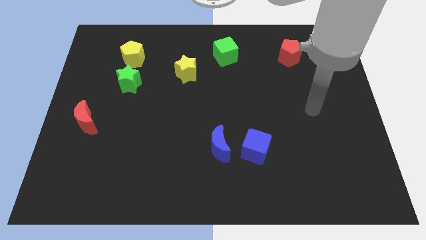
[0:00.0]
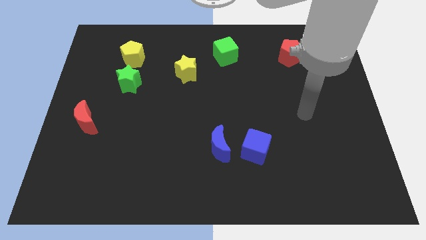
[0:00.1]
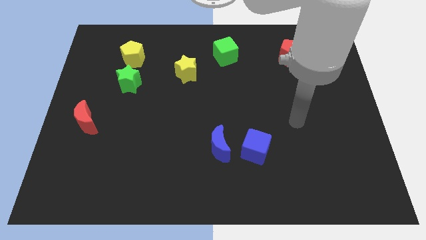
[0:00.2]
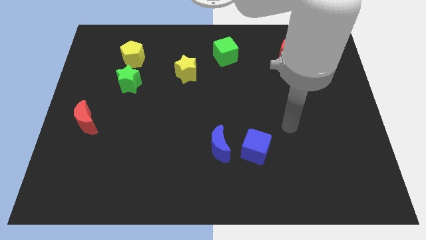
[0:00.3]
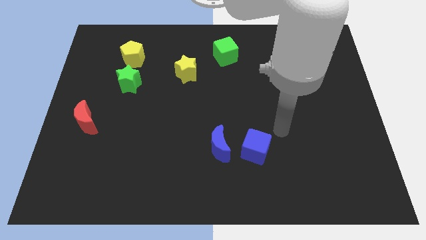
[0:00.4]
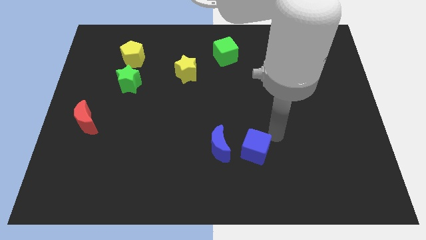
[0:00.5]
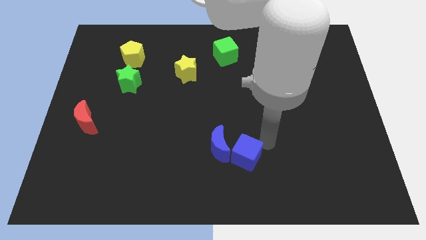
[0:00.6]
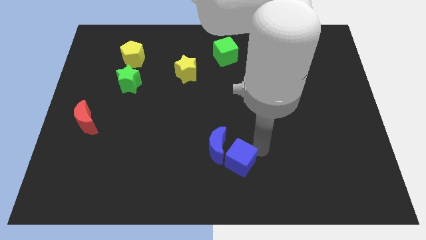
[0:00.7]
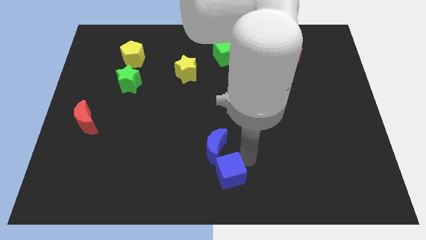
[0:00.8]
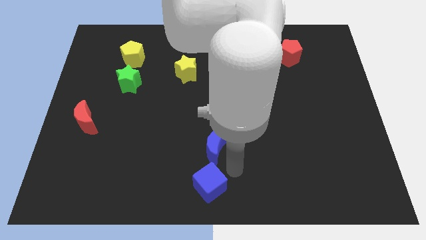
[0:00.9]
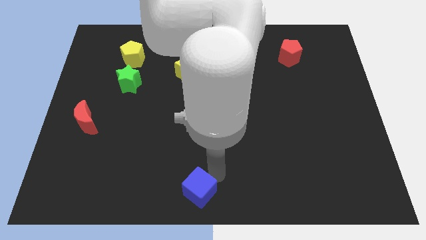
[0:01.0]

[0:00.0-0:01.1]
pull the blue moon apart from the blue cube

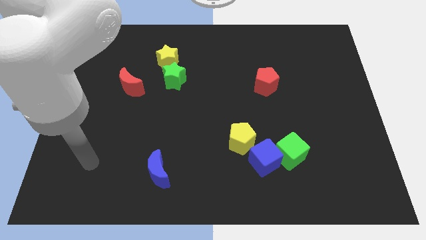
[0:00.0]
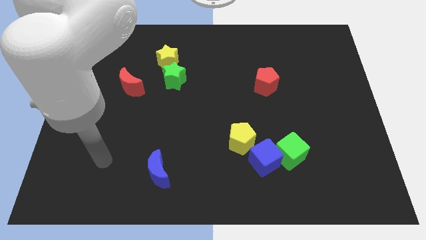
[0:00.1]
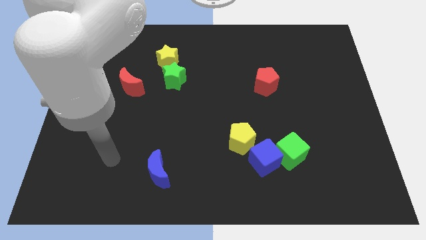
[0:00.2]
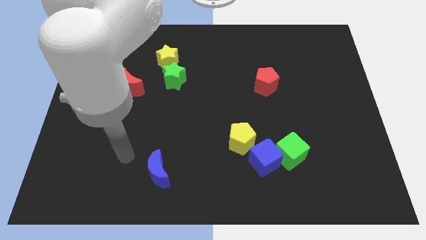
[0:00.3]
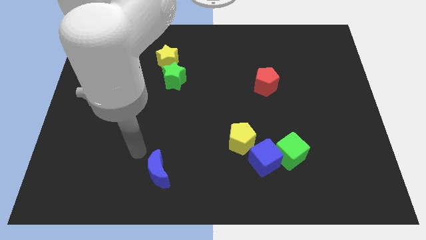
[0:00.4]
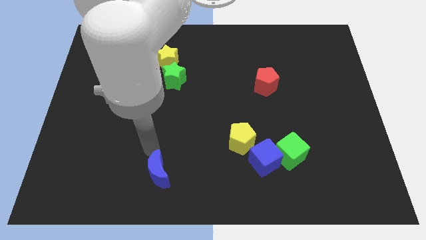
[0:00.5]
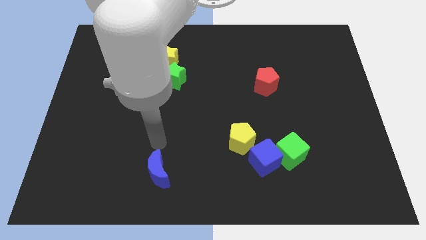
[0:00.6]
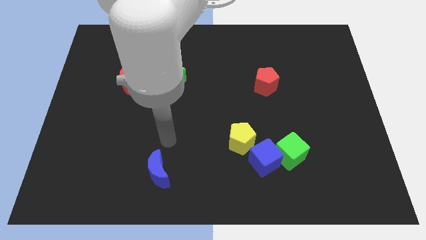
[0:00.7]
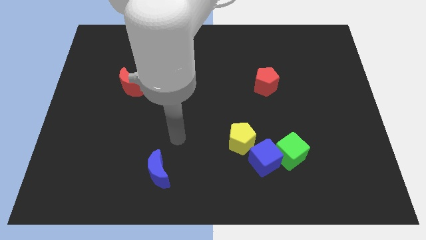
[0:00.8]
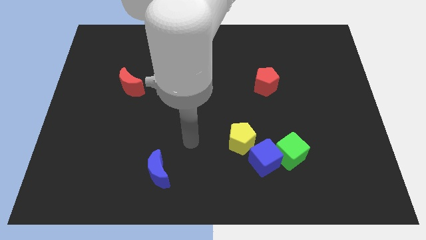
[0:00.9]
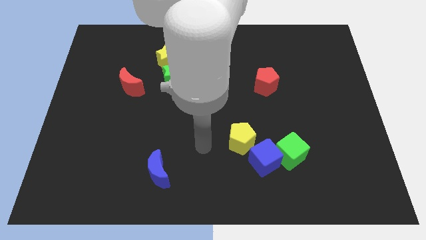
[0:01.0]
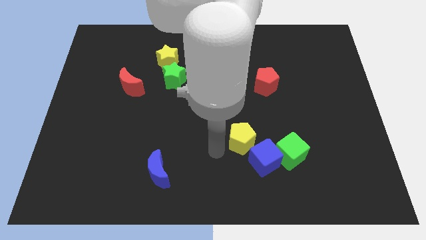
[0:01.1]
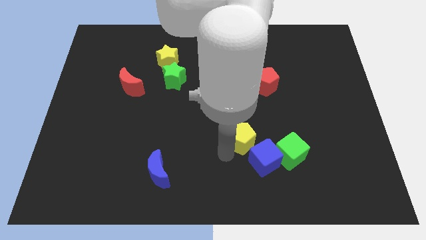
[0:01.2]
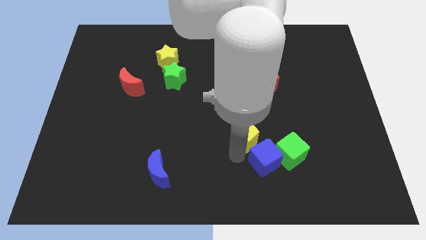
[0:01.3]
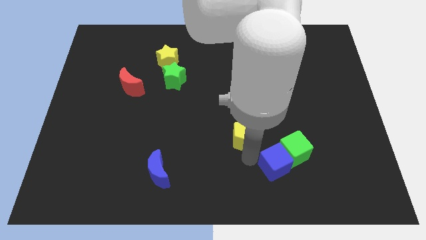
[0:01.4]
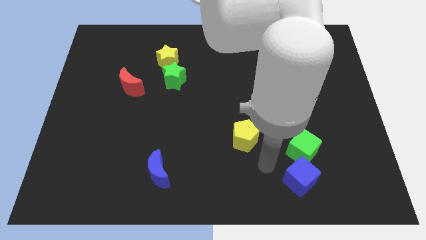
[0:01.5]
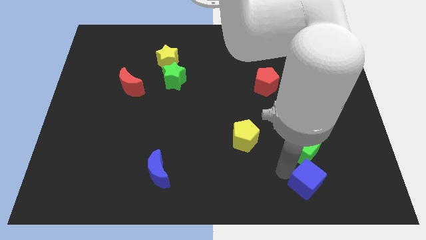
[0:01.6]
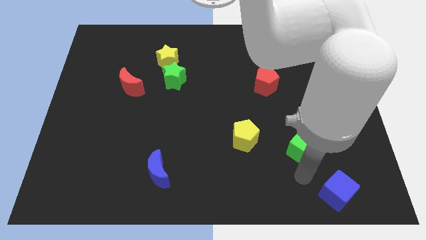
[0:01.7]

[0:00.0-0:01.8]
pull the green cube apart from the blue cube

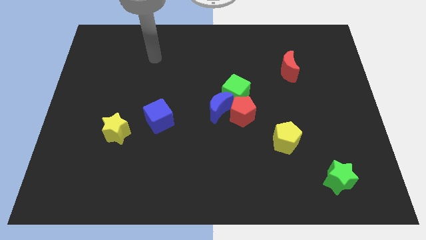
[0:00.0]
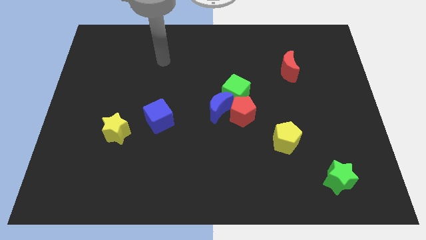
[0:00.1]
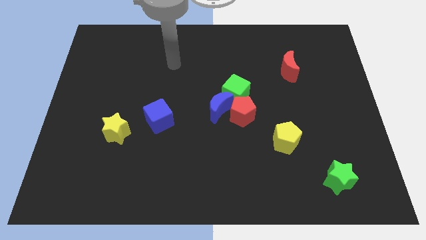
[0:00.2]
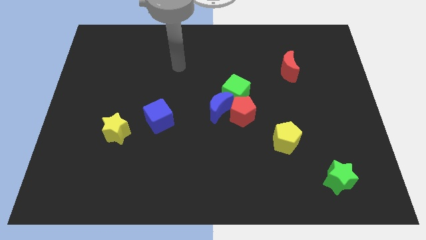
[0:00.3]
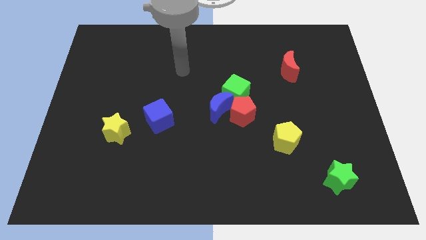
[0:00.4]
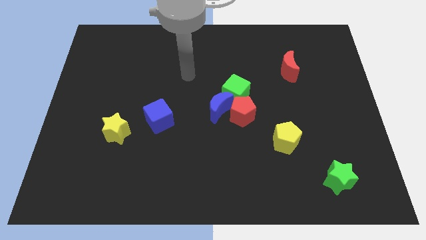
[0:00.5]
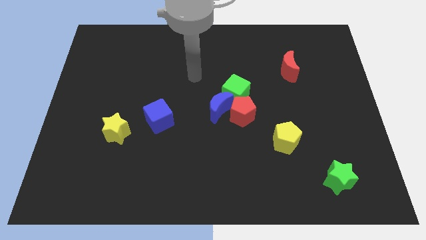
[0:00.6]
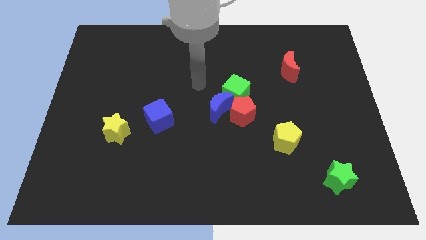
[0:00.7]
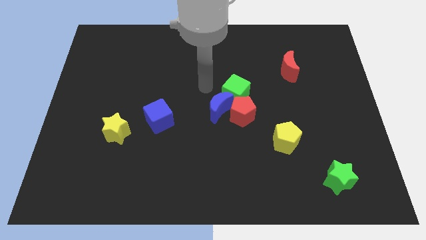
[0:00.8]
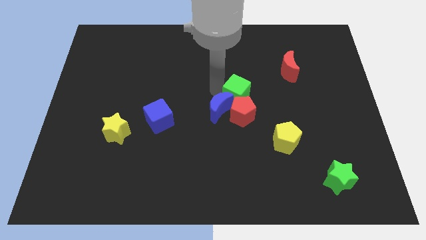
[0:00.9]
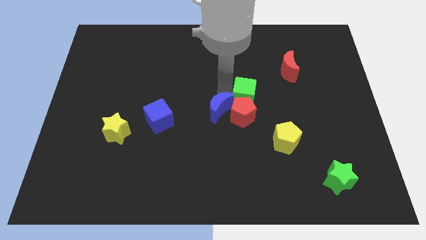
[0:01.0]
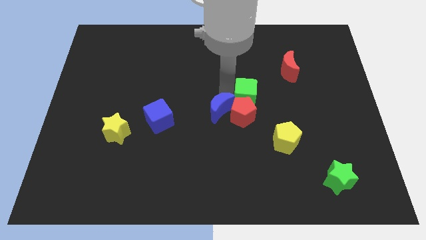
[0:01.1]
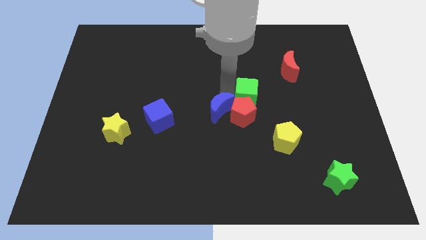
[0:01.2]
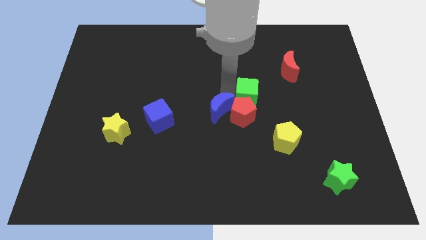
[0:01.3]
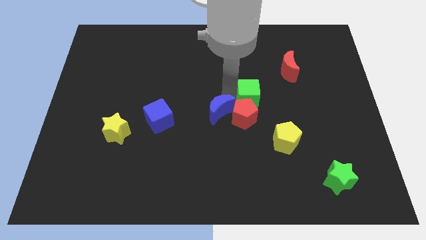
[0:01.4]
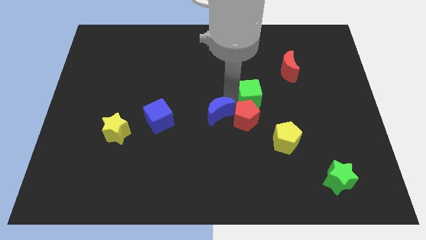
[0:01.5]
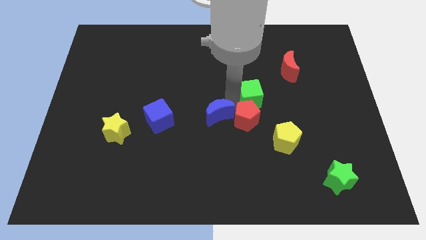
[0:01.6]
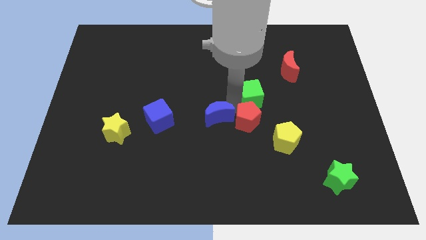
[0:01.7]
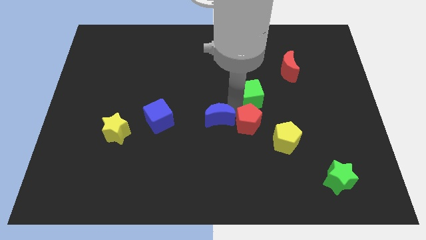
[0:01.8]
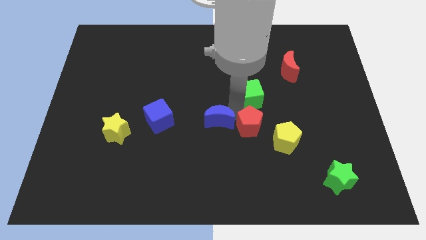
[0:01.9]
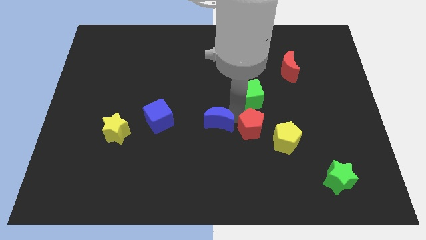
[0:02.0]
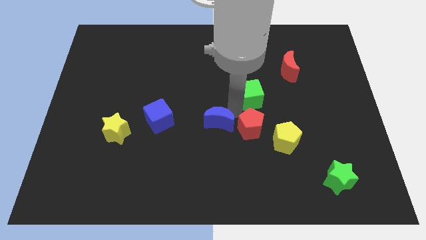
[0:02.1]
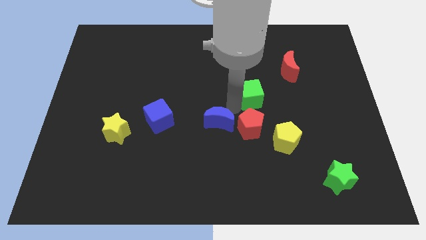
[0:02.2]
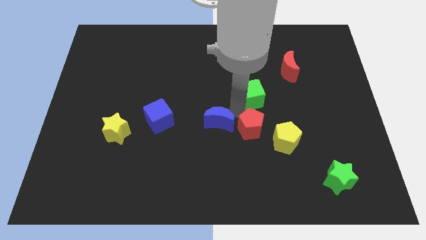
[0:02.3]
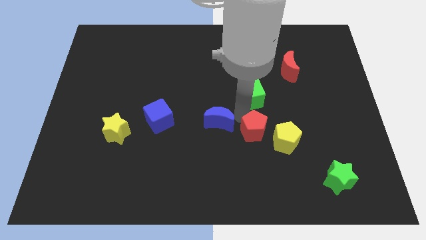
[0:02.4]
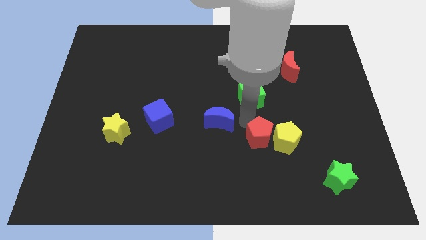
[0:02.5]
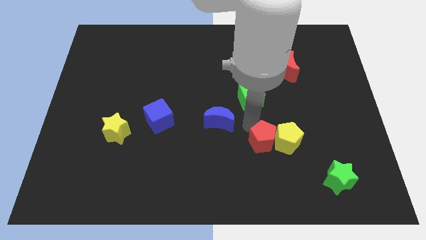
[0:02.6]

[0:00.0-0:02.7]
move the red pentagon away from the blue moon and green cube

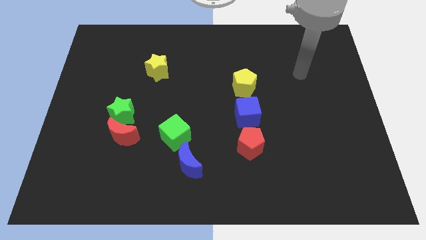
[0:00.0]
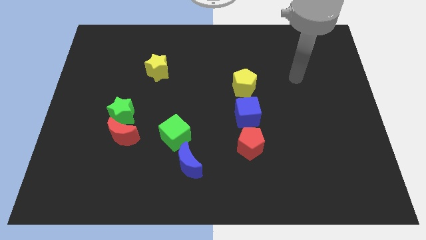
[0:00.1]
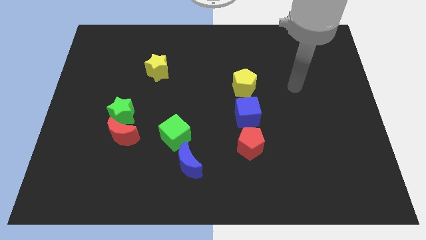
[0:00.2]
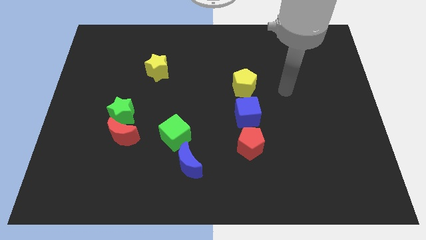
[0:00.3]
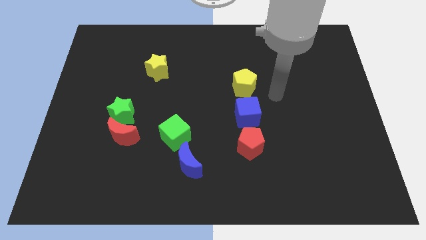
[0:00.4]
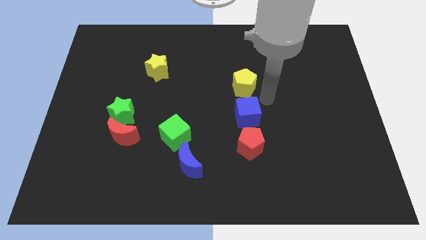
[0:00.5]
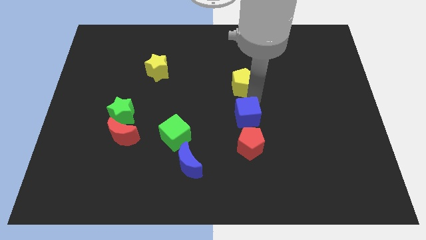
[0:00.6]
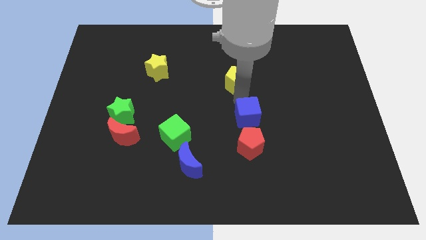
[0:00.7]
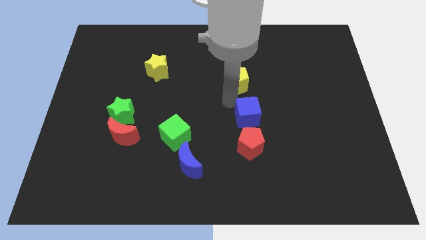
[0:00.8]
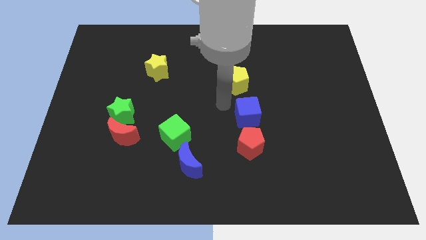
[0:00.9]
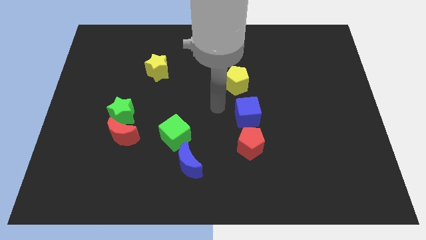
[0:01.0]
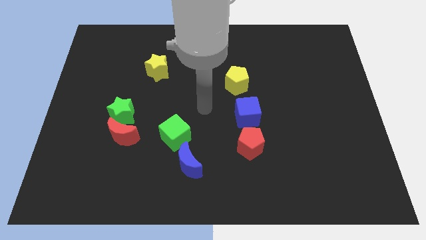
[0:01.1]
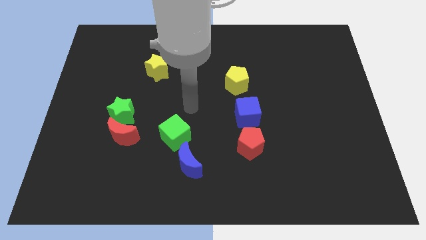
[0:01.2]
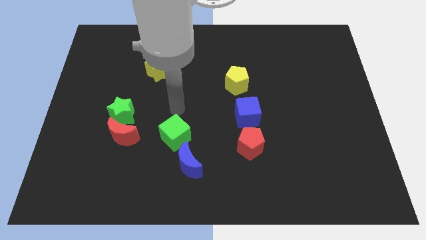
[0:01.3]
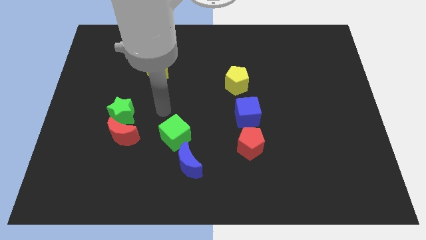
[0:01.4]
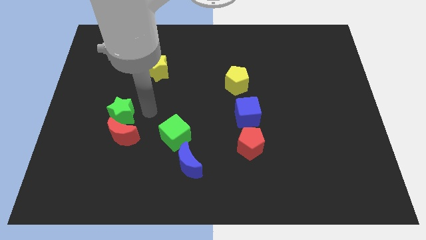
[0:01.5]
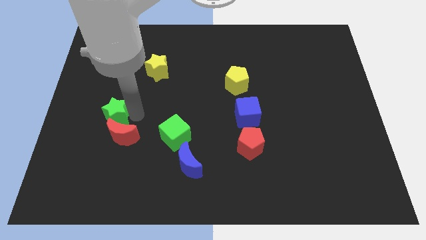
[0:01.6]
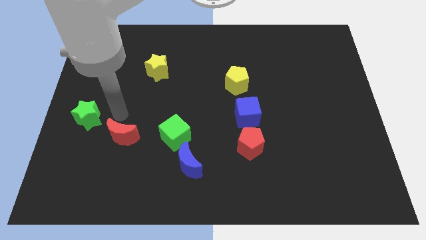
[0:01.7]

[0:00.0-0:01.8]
separate the red moon from the green star

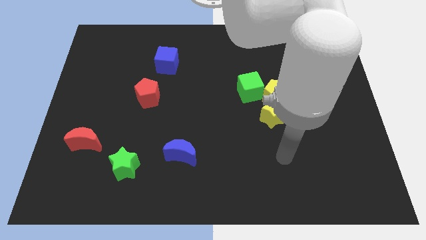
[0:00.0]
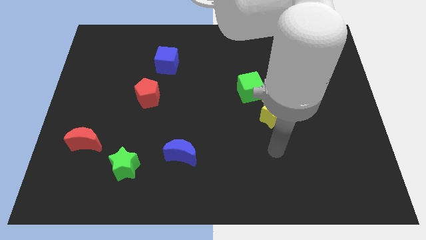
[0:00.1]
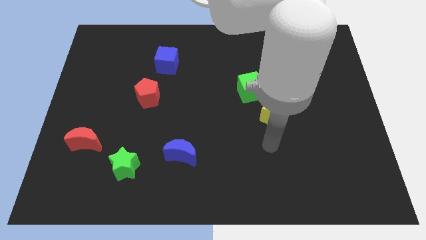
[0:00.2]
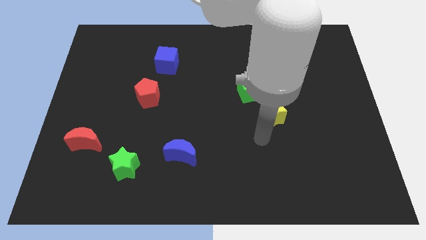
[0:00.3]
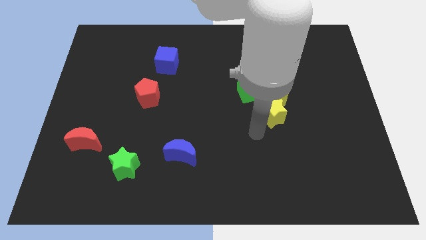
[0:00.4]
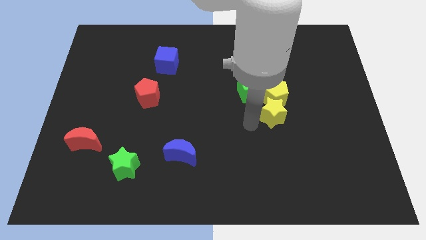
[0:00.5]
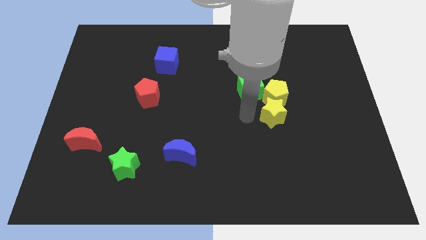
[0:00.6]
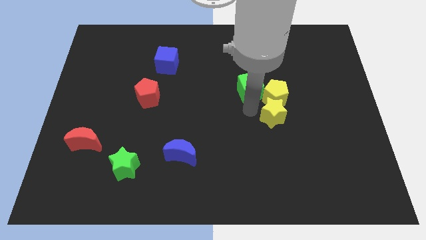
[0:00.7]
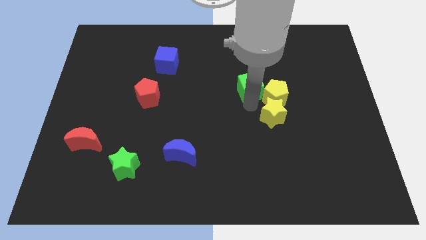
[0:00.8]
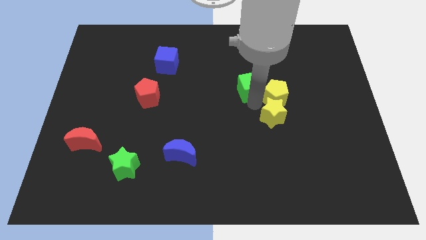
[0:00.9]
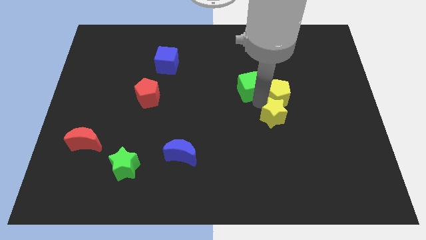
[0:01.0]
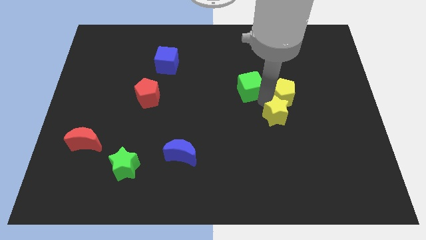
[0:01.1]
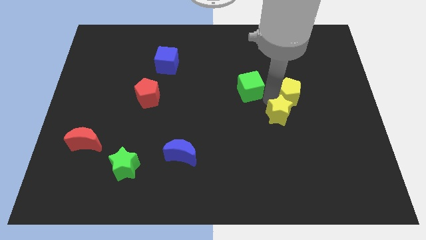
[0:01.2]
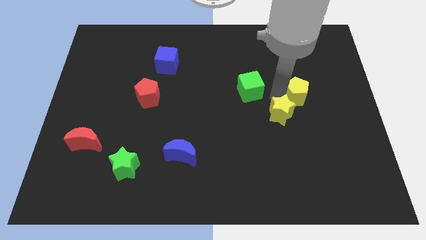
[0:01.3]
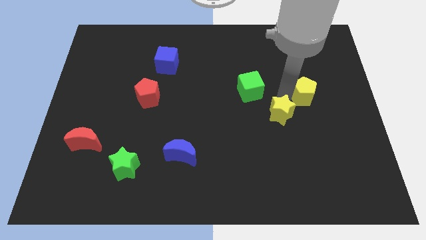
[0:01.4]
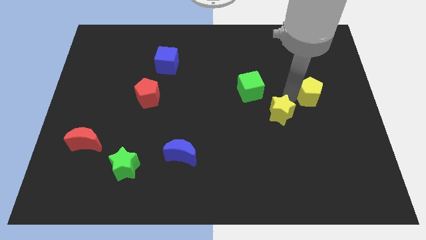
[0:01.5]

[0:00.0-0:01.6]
pull the yellow pentagon apart from the yellow star and green cube

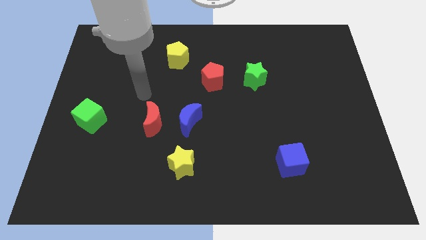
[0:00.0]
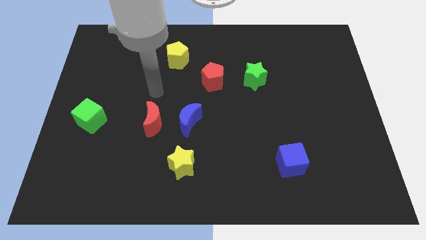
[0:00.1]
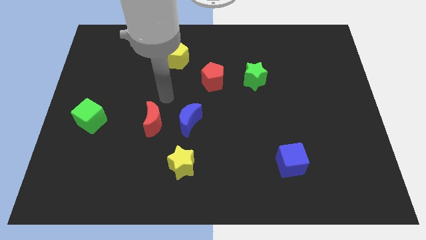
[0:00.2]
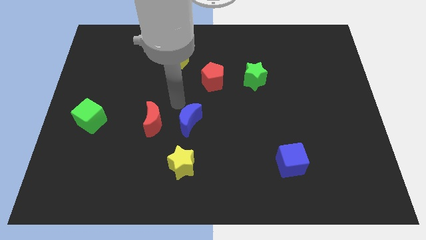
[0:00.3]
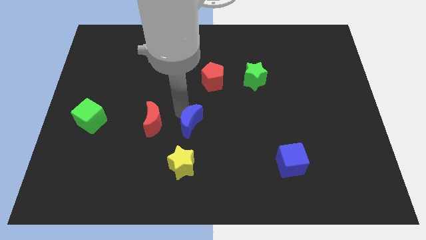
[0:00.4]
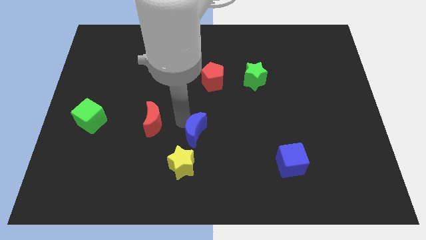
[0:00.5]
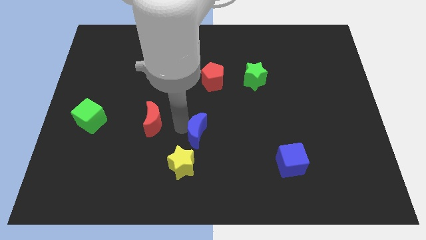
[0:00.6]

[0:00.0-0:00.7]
move the red moon away from the blue moon
